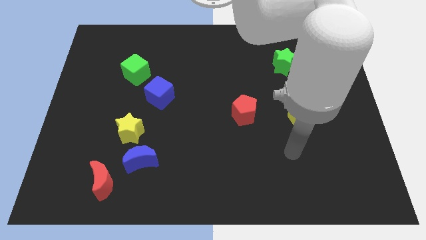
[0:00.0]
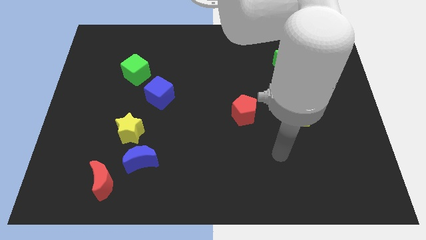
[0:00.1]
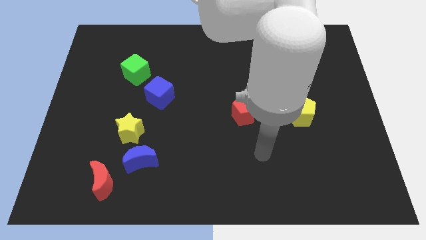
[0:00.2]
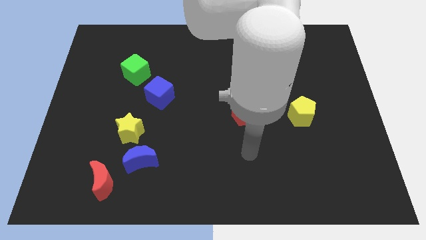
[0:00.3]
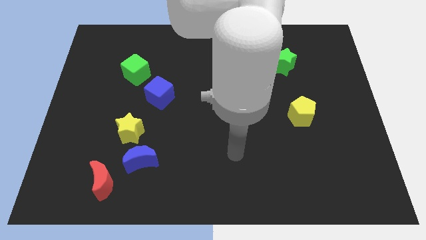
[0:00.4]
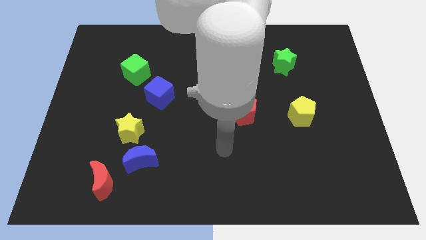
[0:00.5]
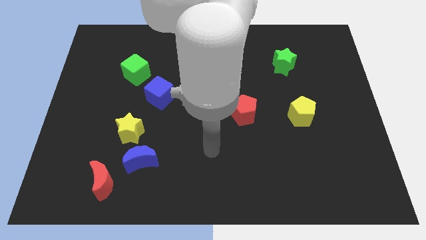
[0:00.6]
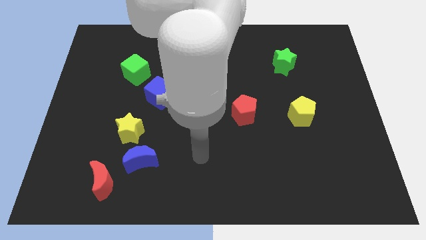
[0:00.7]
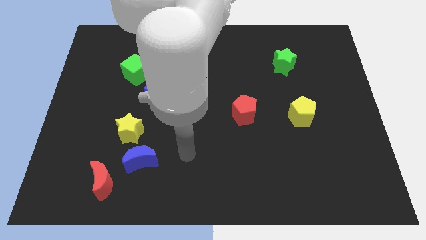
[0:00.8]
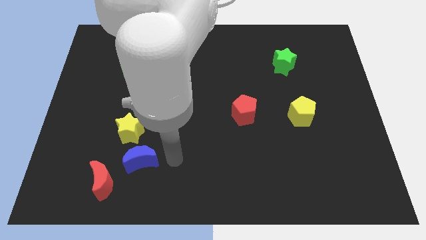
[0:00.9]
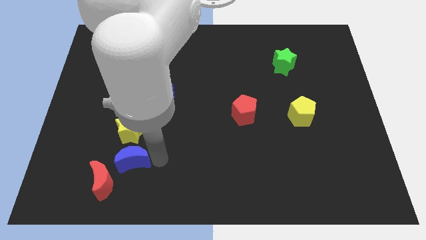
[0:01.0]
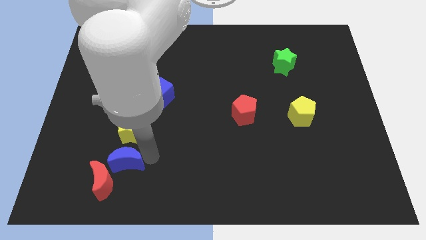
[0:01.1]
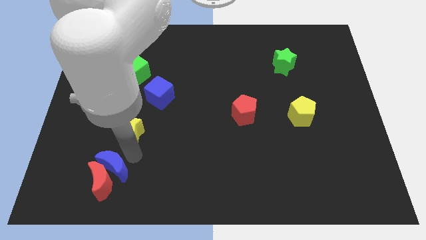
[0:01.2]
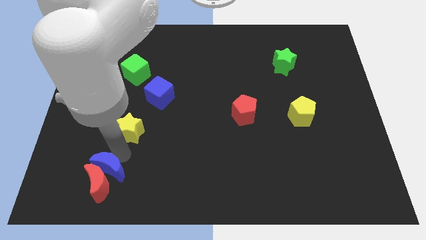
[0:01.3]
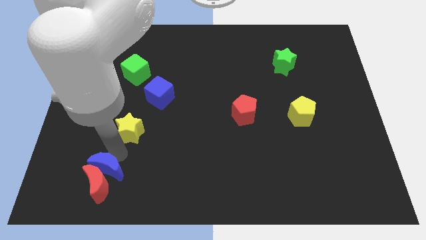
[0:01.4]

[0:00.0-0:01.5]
move the yellow star away from the blue moon

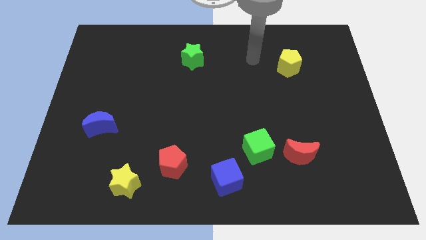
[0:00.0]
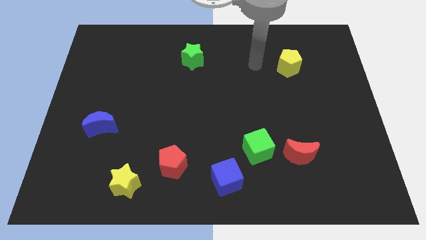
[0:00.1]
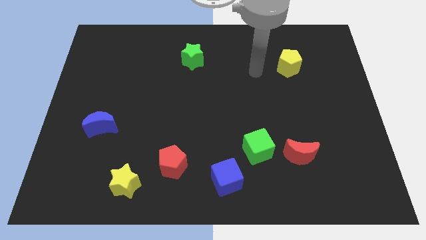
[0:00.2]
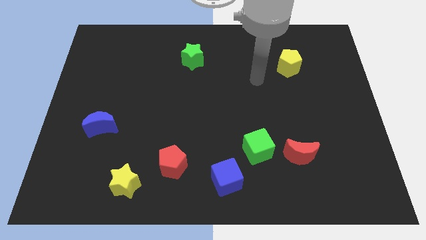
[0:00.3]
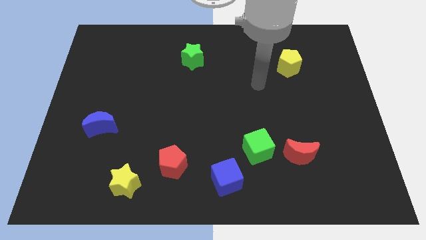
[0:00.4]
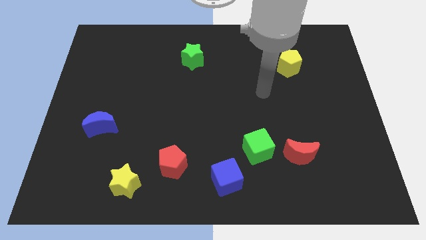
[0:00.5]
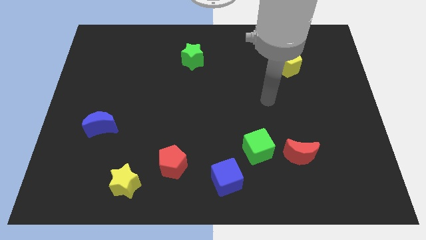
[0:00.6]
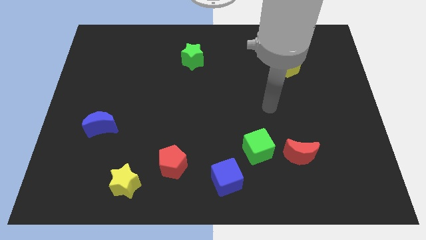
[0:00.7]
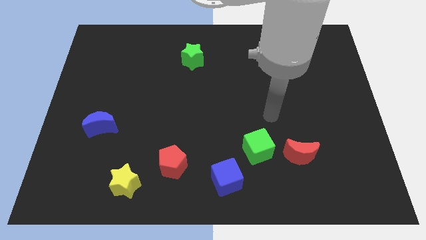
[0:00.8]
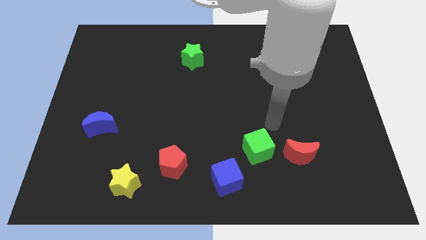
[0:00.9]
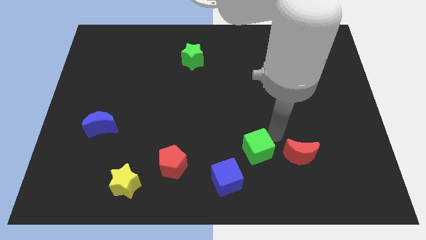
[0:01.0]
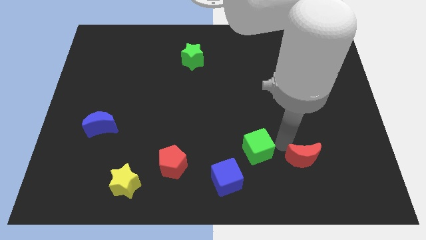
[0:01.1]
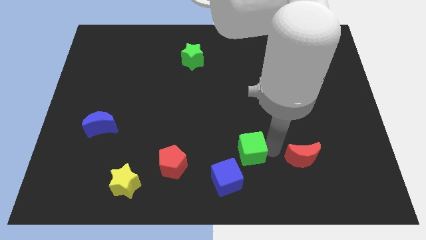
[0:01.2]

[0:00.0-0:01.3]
move the red moon away from the green cube

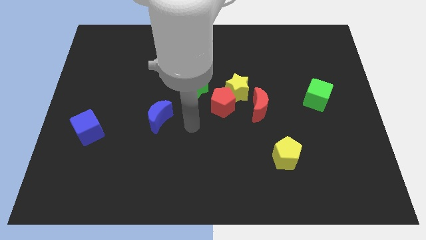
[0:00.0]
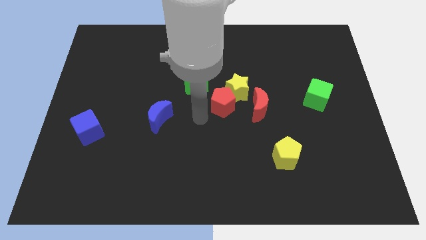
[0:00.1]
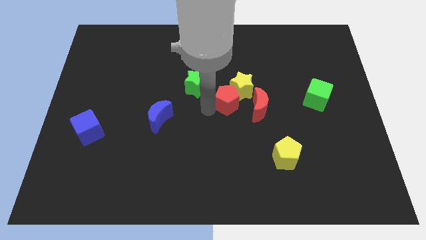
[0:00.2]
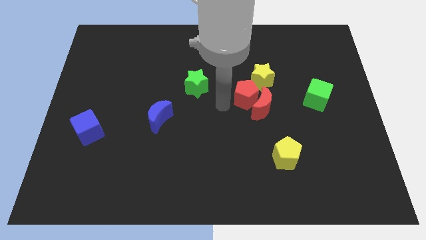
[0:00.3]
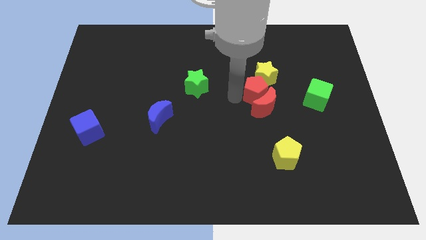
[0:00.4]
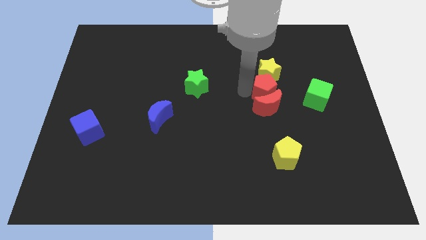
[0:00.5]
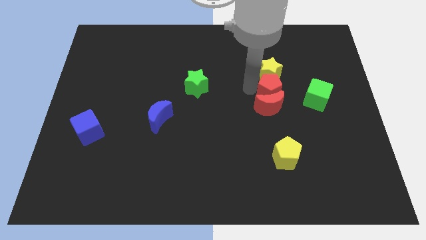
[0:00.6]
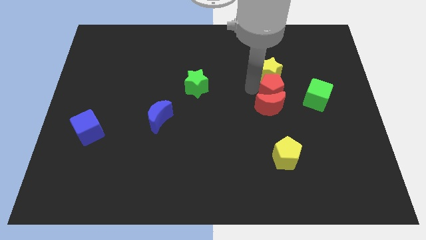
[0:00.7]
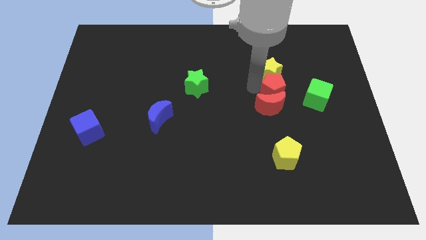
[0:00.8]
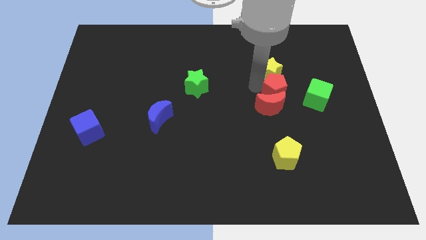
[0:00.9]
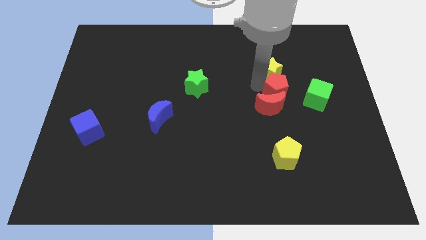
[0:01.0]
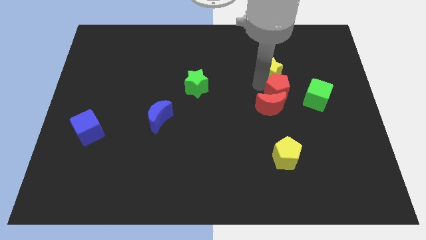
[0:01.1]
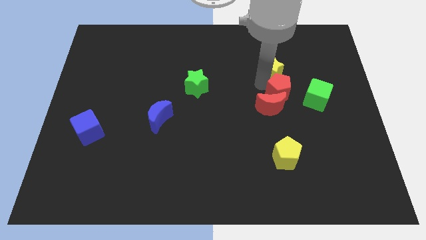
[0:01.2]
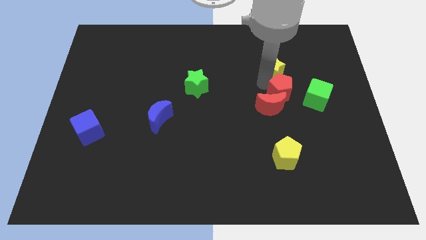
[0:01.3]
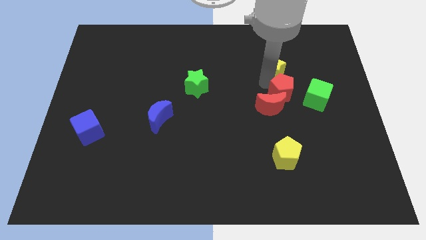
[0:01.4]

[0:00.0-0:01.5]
separate the yellow star from the red pentagon, red moon, and green star

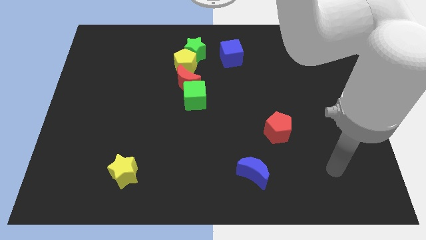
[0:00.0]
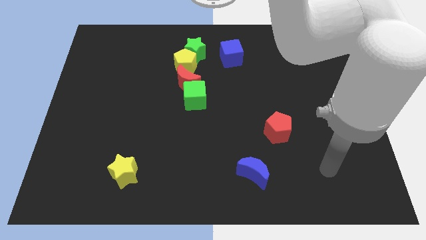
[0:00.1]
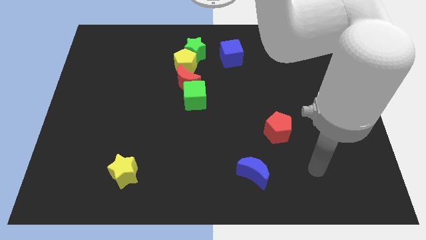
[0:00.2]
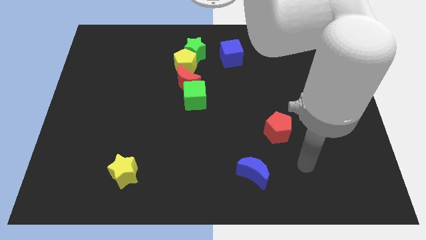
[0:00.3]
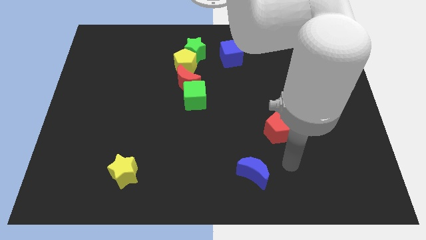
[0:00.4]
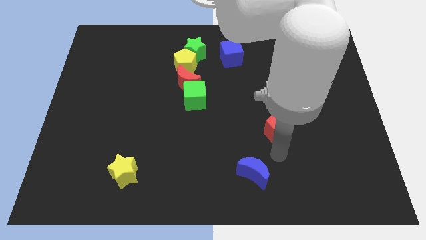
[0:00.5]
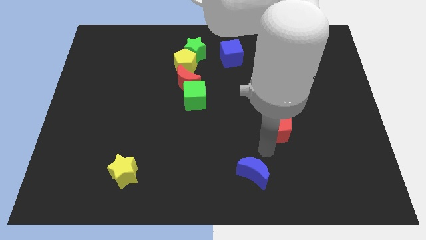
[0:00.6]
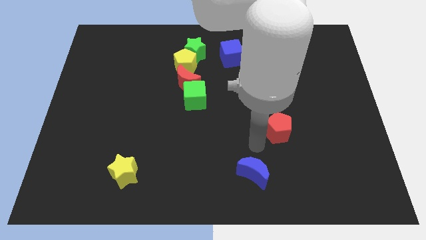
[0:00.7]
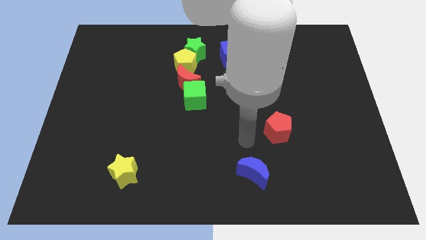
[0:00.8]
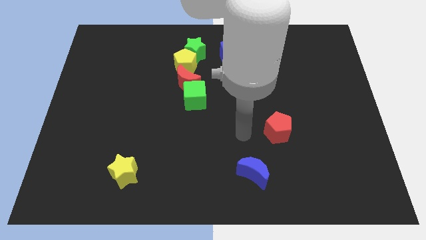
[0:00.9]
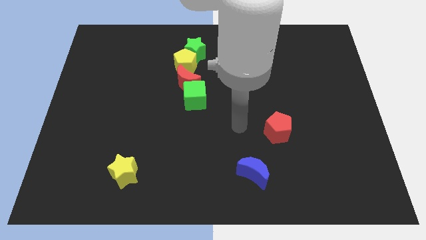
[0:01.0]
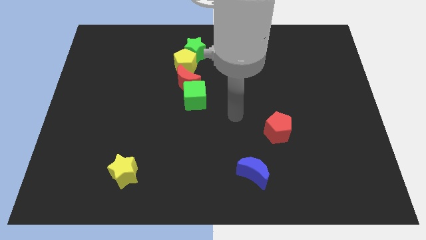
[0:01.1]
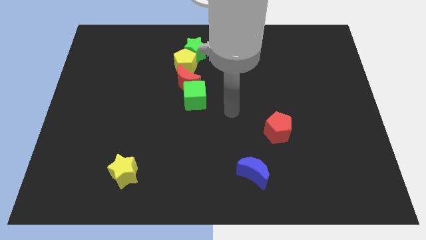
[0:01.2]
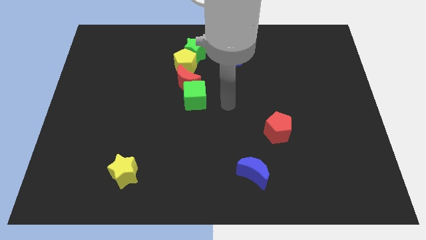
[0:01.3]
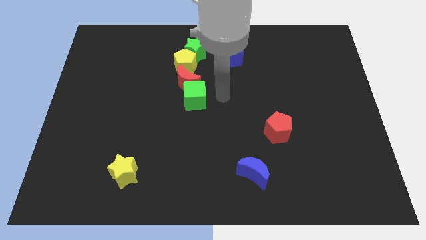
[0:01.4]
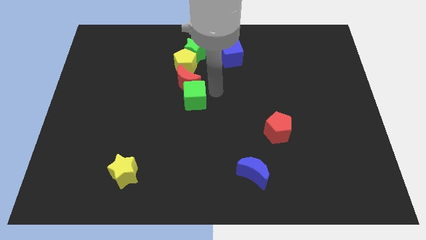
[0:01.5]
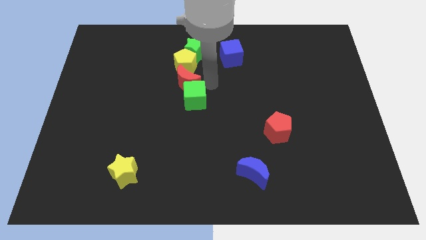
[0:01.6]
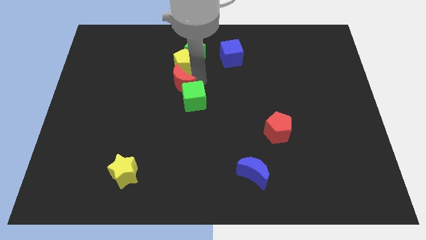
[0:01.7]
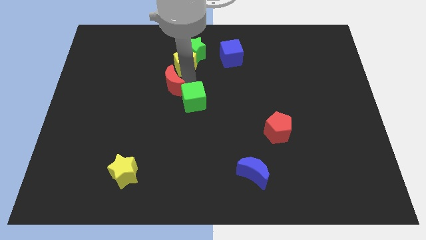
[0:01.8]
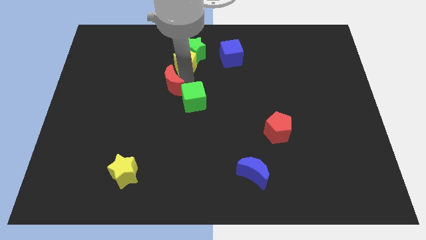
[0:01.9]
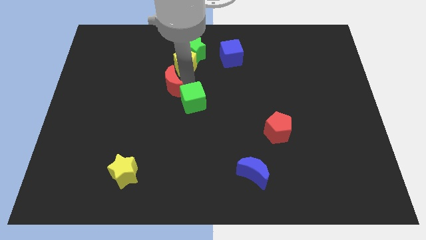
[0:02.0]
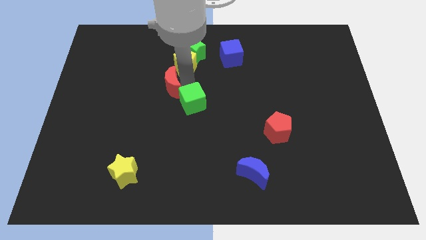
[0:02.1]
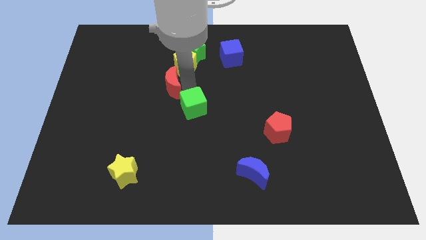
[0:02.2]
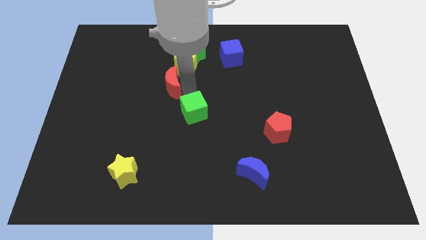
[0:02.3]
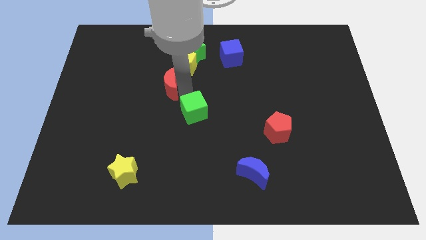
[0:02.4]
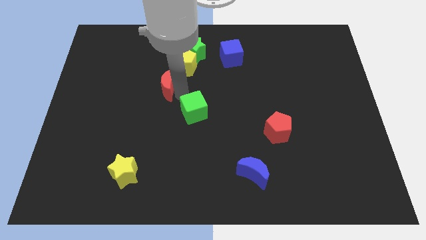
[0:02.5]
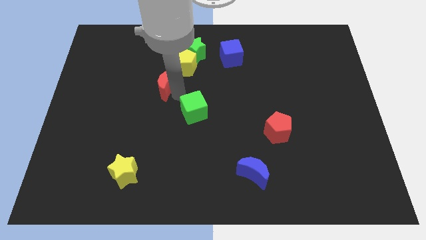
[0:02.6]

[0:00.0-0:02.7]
pull the green cube apart from the red moon

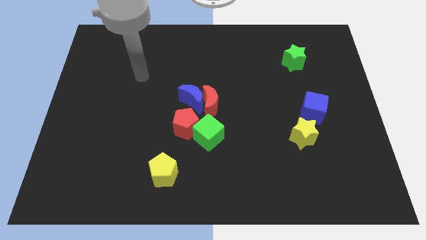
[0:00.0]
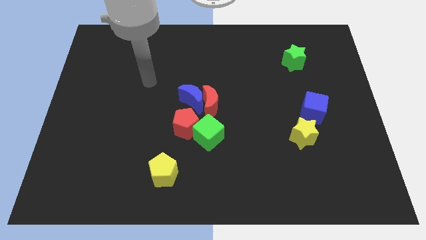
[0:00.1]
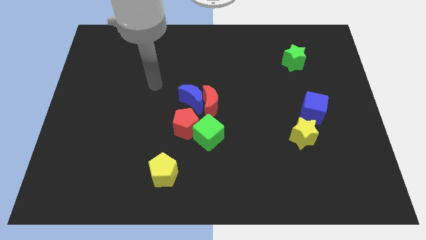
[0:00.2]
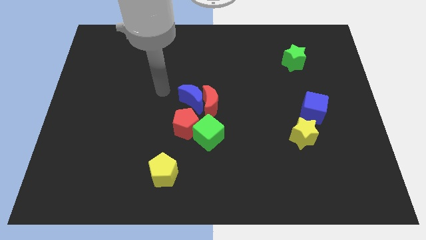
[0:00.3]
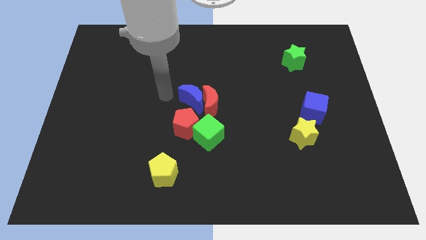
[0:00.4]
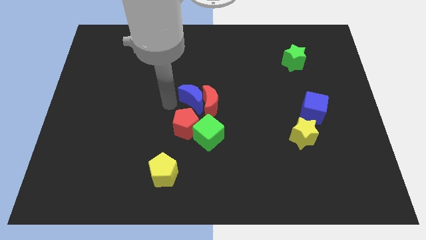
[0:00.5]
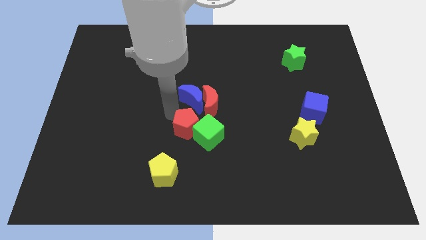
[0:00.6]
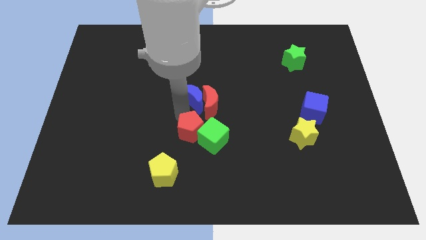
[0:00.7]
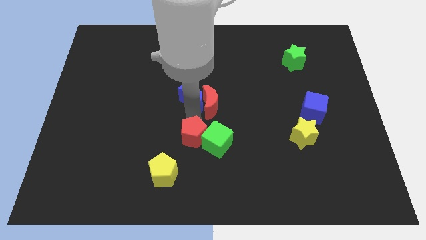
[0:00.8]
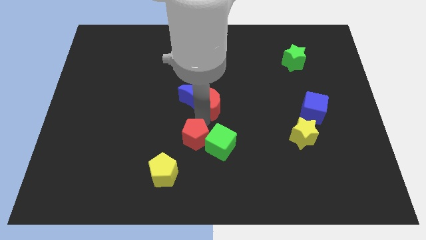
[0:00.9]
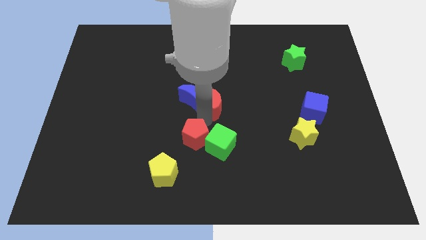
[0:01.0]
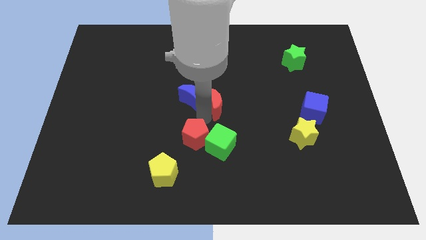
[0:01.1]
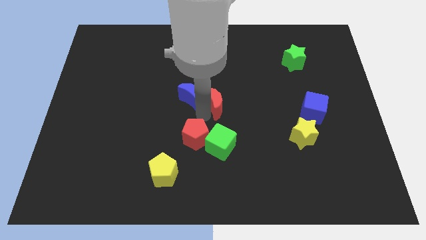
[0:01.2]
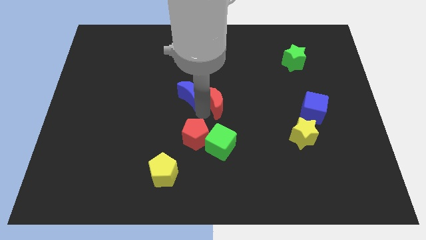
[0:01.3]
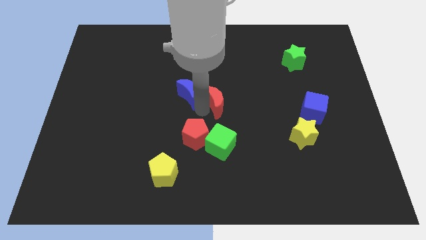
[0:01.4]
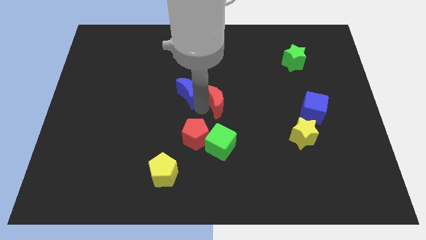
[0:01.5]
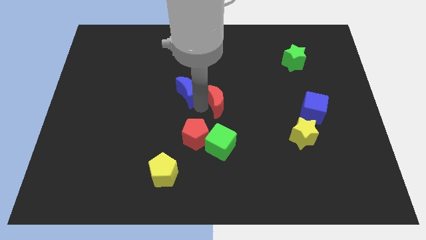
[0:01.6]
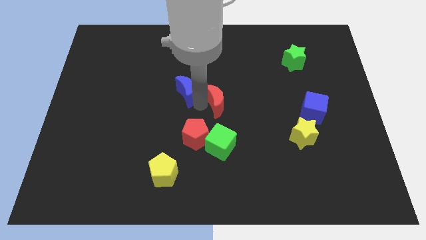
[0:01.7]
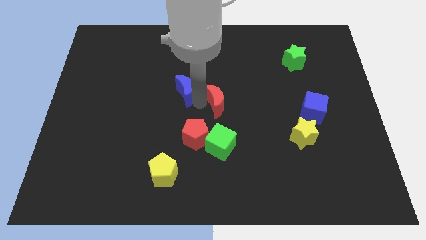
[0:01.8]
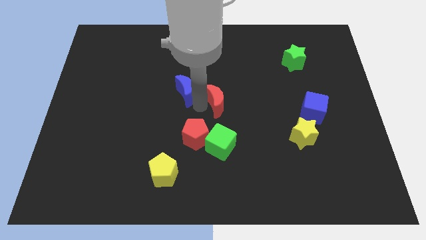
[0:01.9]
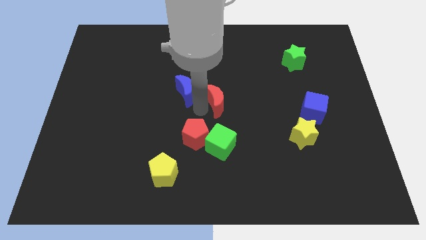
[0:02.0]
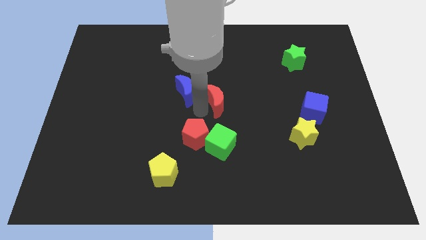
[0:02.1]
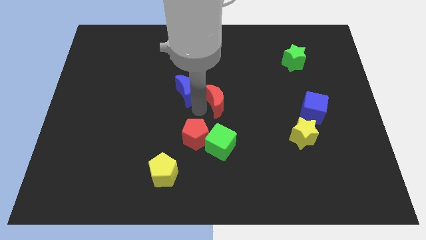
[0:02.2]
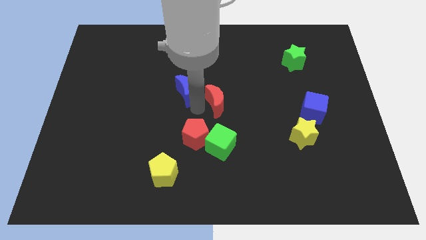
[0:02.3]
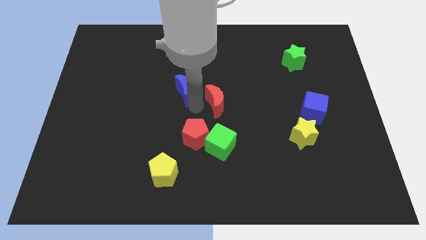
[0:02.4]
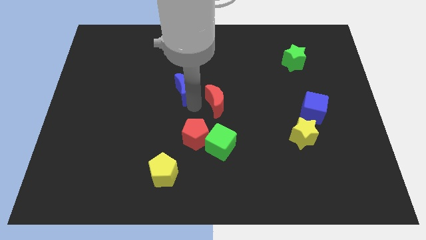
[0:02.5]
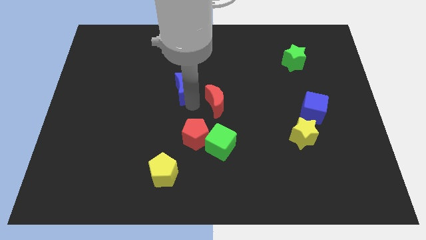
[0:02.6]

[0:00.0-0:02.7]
pull the blue moon apart from the red moon and red pentagon
